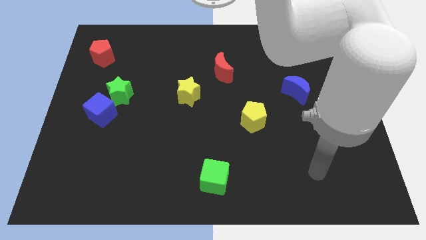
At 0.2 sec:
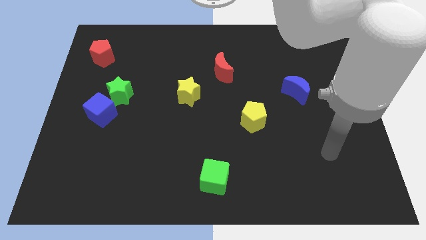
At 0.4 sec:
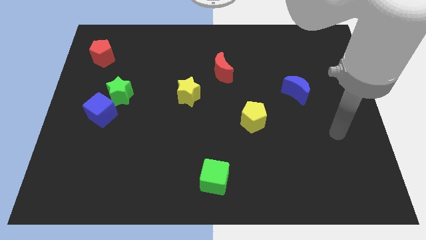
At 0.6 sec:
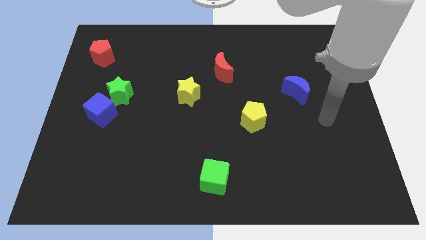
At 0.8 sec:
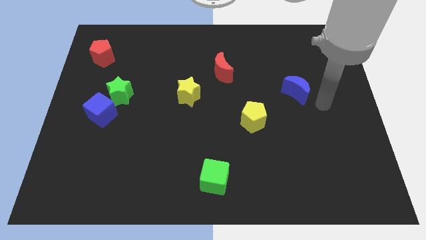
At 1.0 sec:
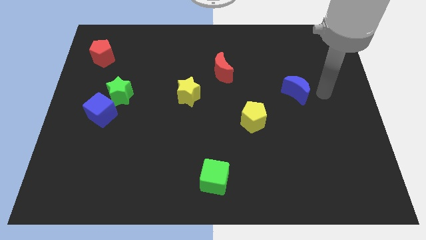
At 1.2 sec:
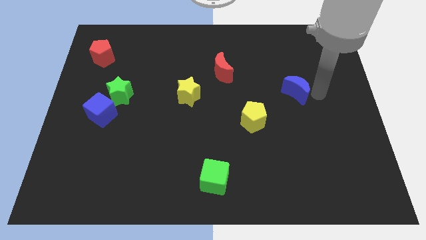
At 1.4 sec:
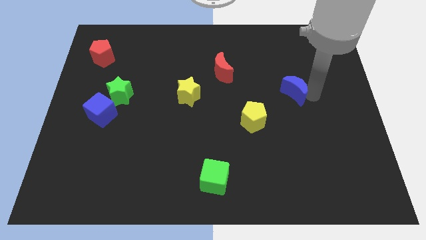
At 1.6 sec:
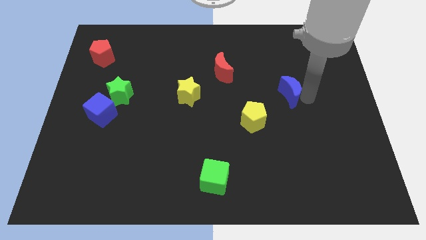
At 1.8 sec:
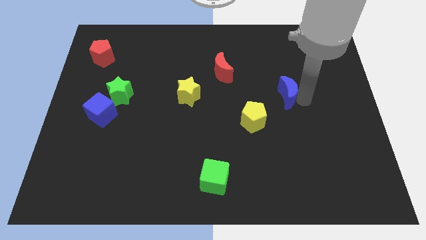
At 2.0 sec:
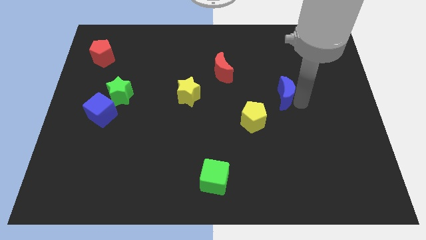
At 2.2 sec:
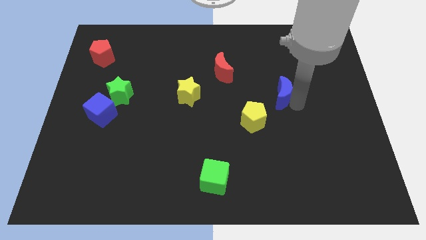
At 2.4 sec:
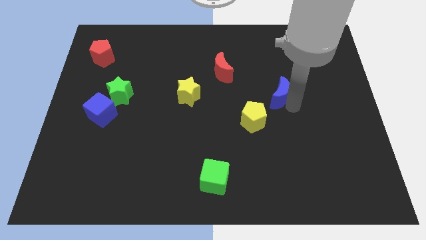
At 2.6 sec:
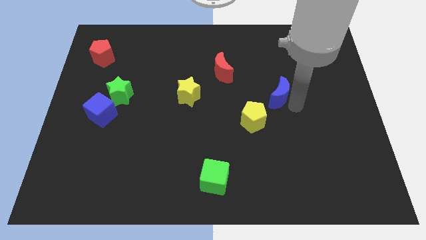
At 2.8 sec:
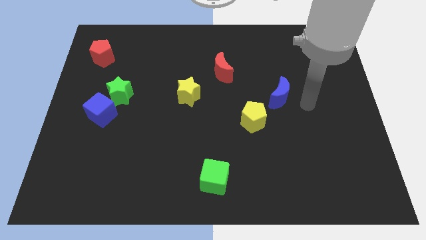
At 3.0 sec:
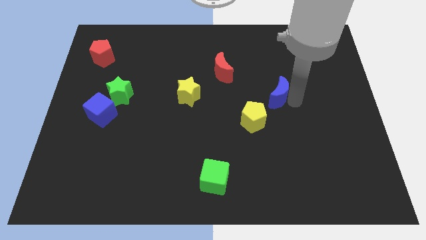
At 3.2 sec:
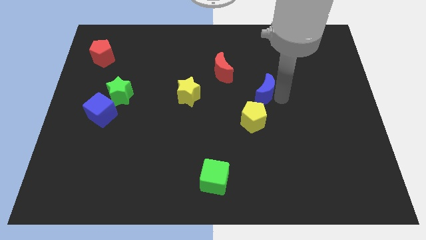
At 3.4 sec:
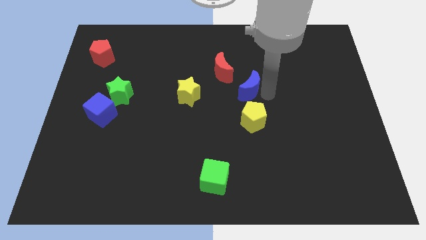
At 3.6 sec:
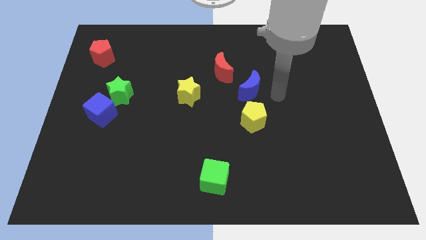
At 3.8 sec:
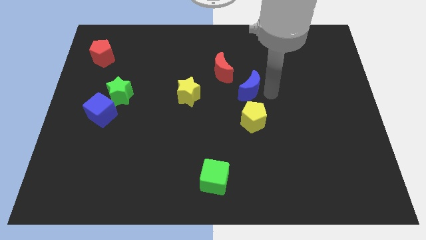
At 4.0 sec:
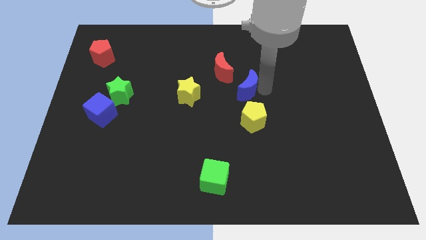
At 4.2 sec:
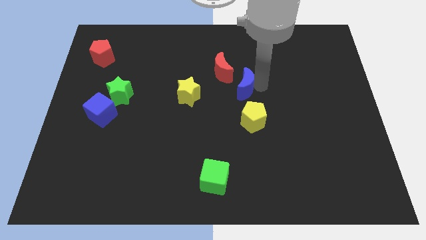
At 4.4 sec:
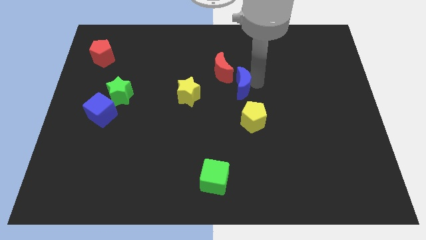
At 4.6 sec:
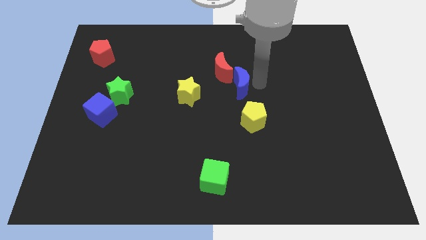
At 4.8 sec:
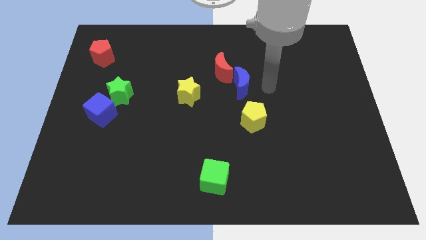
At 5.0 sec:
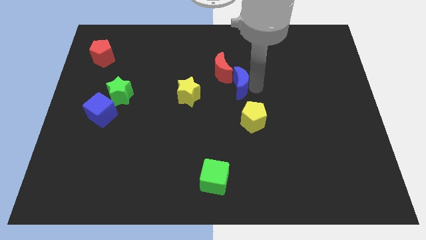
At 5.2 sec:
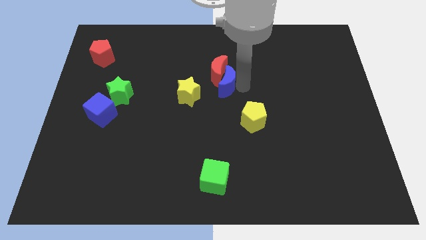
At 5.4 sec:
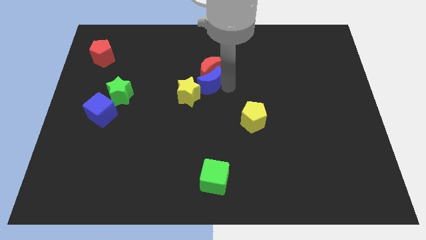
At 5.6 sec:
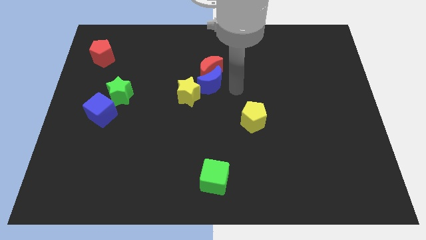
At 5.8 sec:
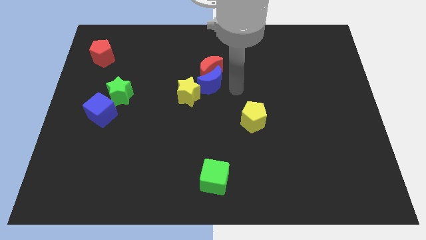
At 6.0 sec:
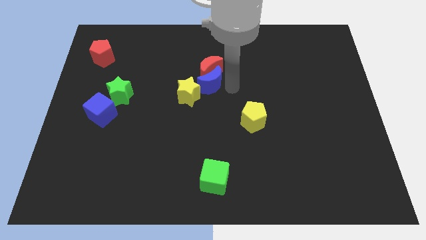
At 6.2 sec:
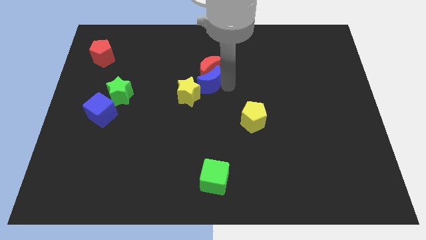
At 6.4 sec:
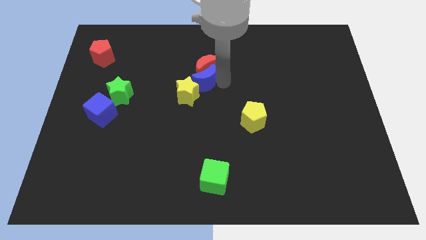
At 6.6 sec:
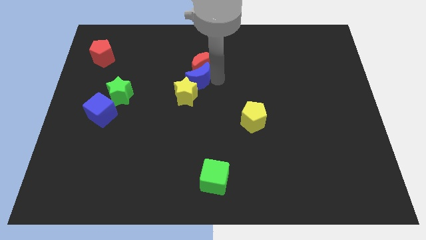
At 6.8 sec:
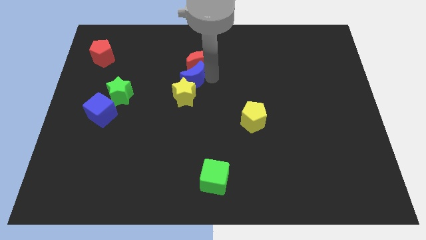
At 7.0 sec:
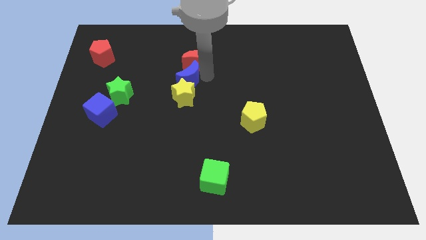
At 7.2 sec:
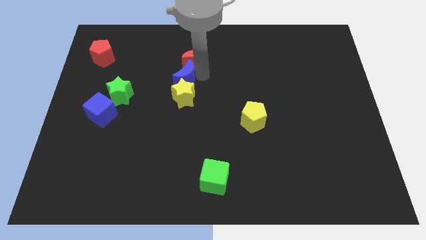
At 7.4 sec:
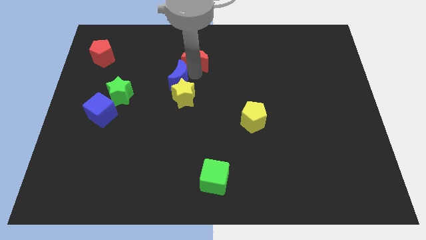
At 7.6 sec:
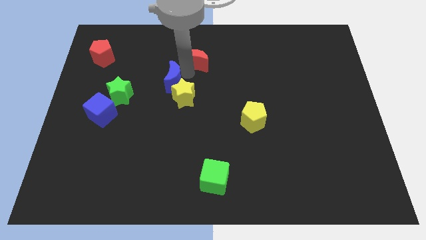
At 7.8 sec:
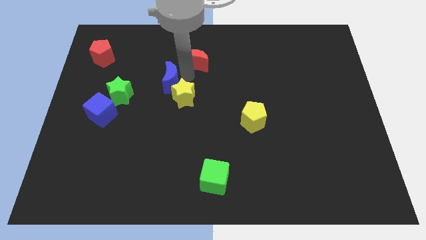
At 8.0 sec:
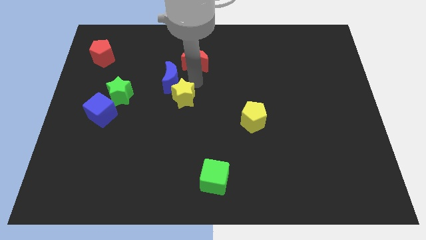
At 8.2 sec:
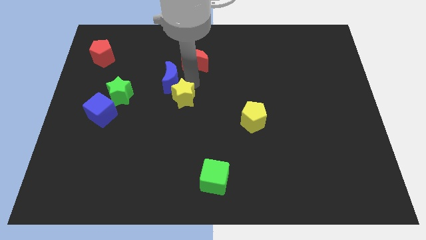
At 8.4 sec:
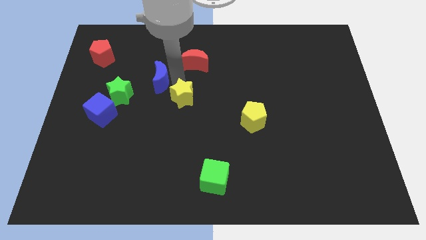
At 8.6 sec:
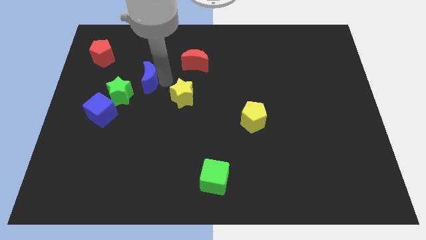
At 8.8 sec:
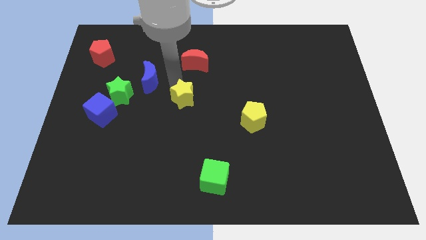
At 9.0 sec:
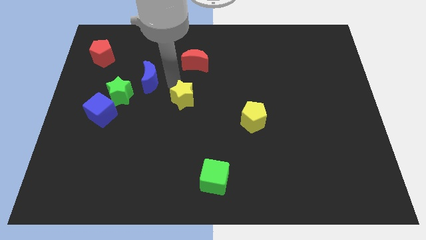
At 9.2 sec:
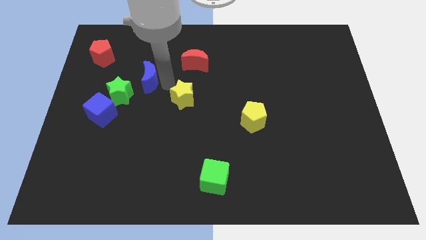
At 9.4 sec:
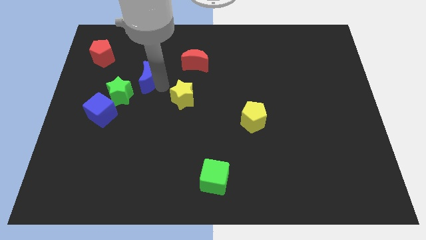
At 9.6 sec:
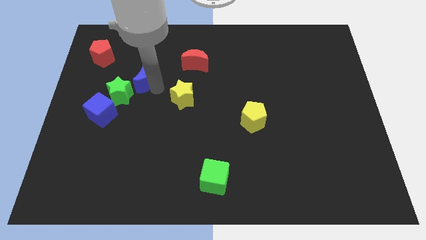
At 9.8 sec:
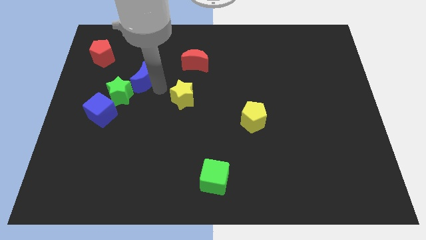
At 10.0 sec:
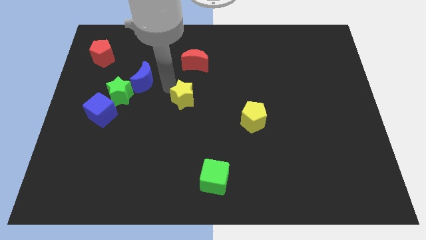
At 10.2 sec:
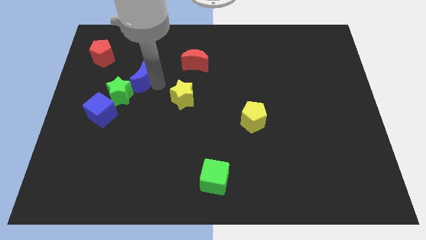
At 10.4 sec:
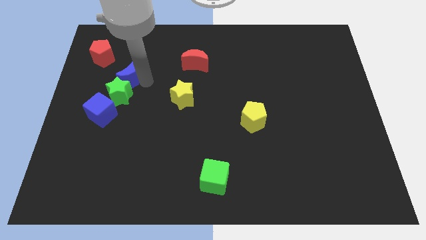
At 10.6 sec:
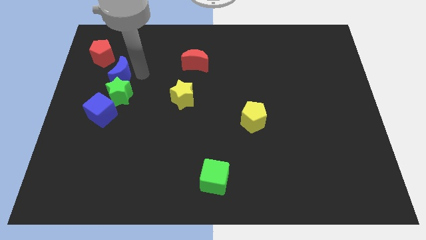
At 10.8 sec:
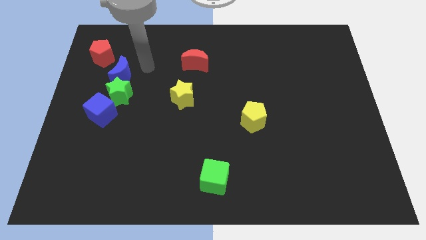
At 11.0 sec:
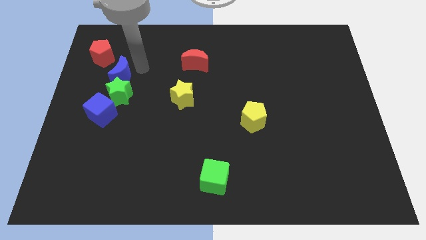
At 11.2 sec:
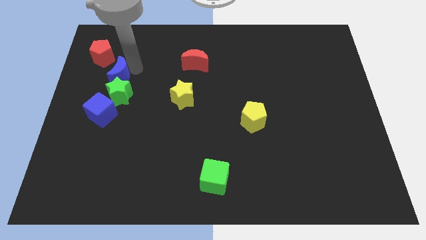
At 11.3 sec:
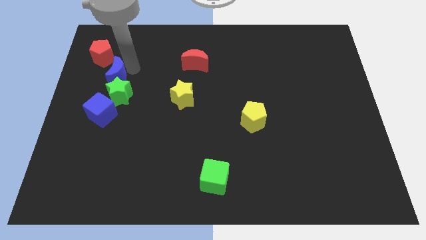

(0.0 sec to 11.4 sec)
move the blue moon to the bottom side of the red pentagon

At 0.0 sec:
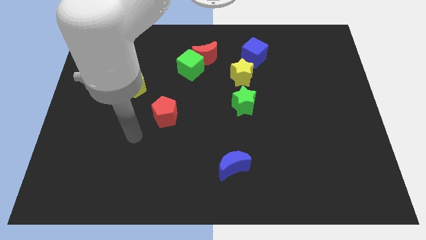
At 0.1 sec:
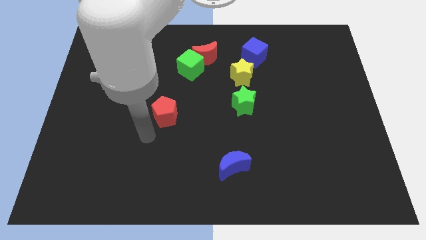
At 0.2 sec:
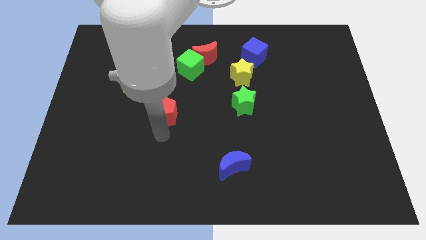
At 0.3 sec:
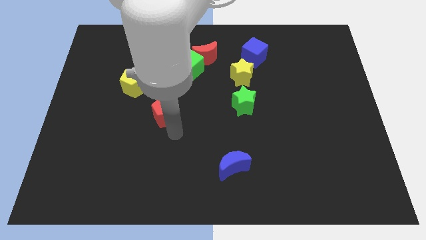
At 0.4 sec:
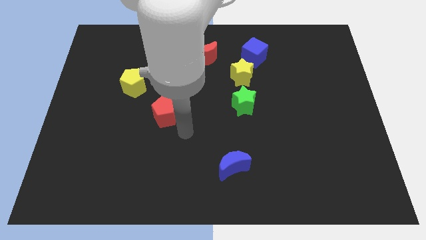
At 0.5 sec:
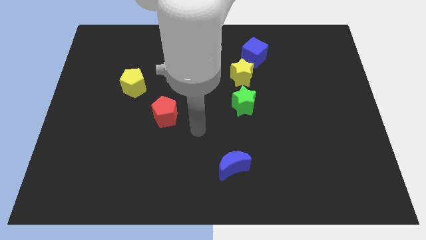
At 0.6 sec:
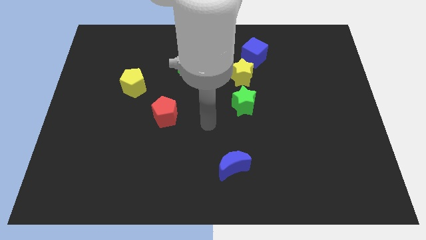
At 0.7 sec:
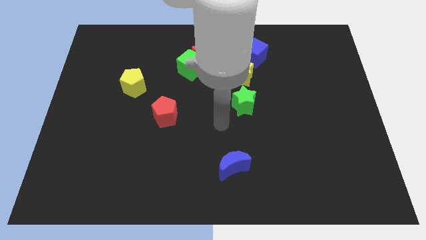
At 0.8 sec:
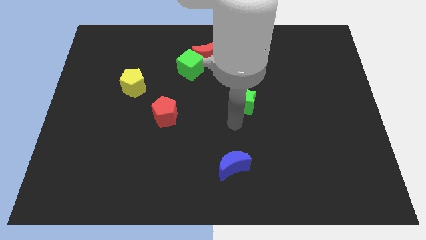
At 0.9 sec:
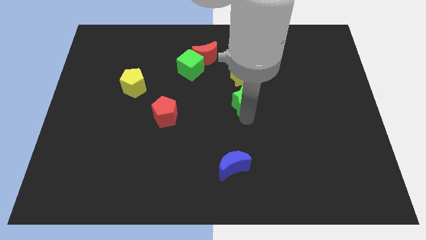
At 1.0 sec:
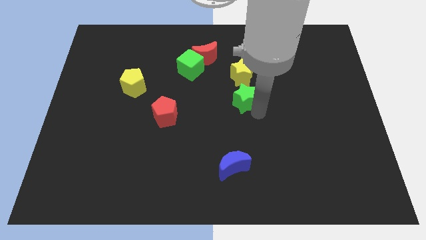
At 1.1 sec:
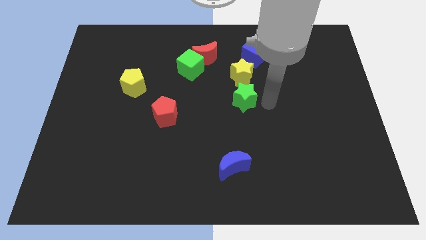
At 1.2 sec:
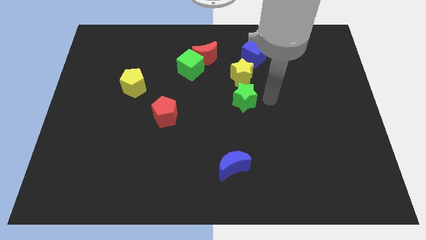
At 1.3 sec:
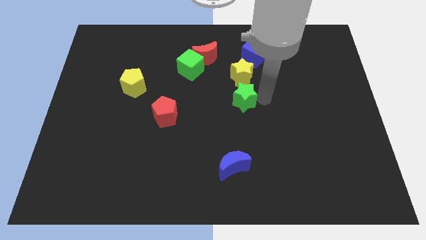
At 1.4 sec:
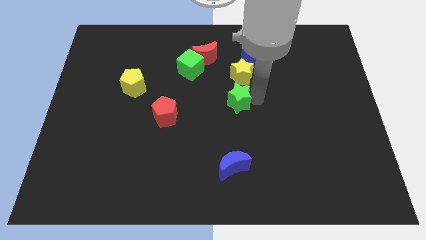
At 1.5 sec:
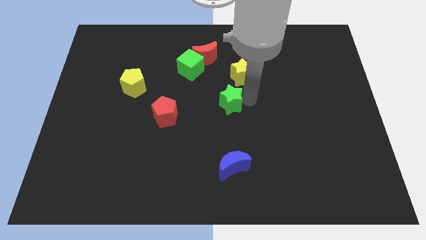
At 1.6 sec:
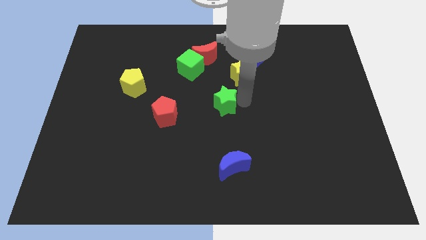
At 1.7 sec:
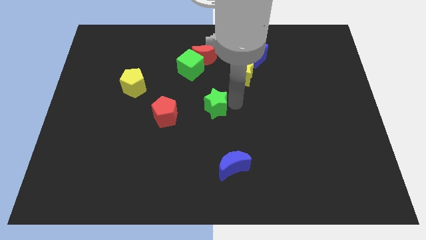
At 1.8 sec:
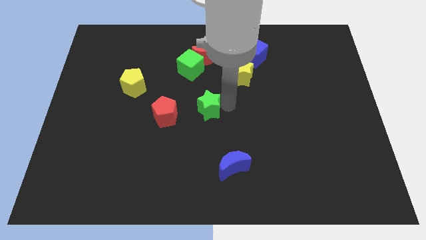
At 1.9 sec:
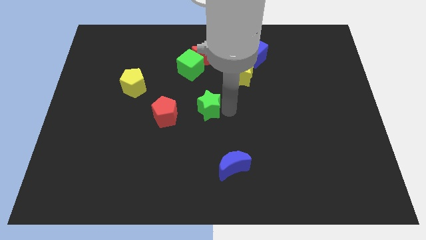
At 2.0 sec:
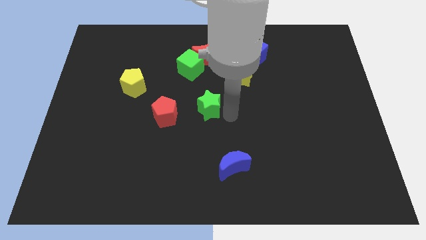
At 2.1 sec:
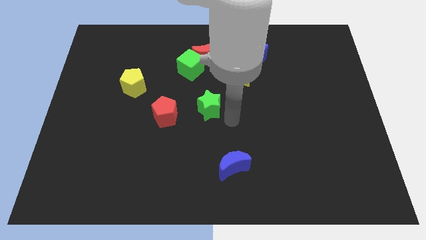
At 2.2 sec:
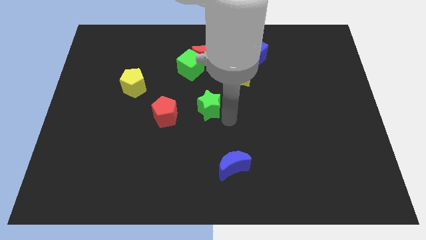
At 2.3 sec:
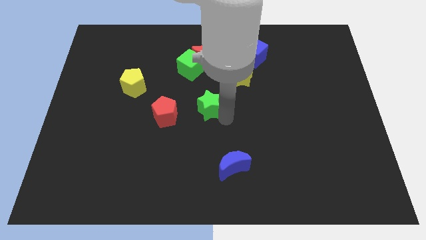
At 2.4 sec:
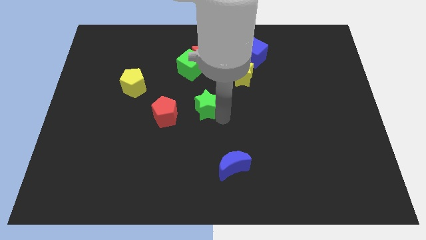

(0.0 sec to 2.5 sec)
slide the green star diagonally up and to the right of the red pentagon
